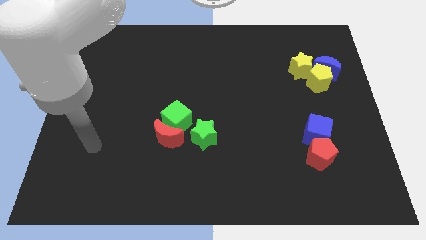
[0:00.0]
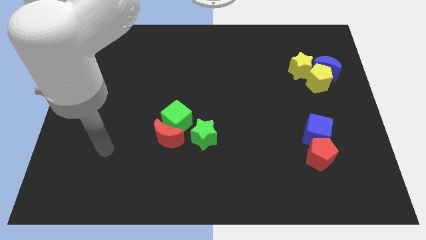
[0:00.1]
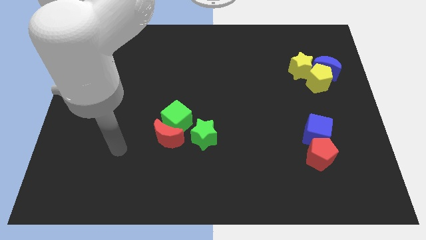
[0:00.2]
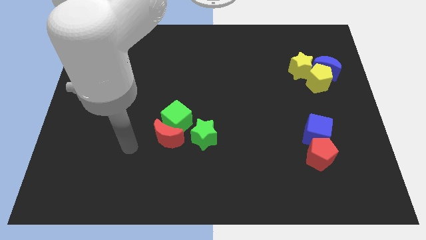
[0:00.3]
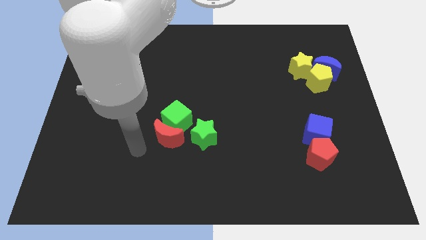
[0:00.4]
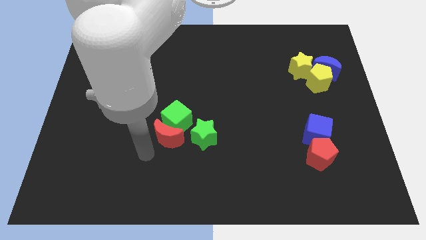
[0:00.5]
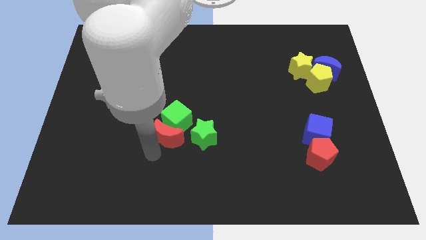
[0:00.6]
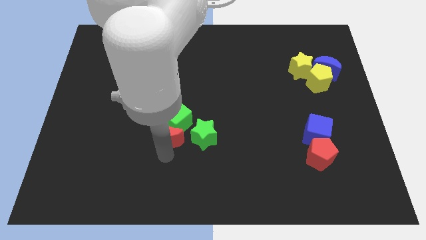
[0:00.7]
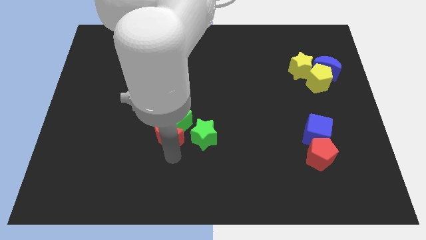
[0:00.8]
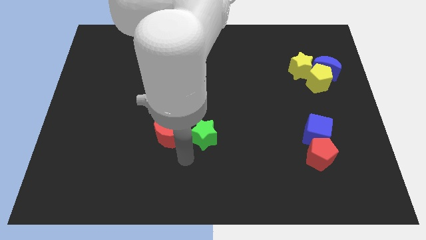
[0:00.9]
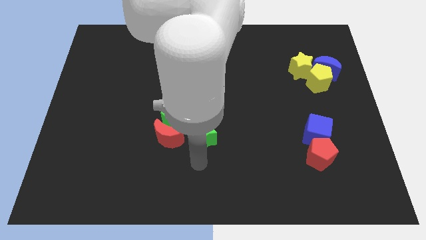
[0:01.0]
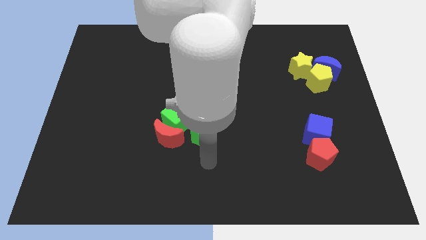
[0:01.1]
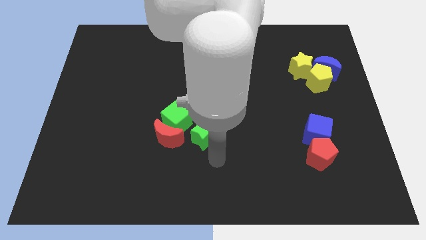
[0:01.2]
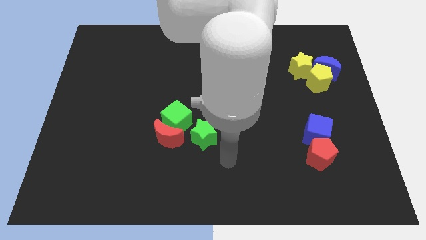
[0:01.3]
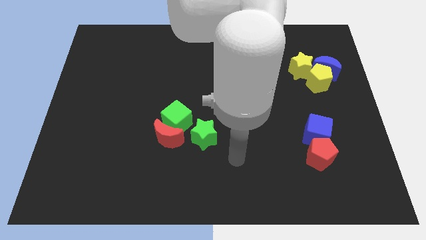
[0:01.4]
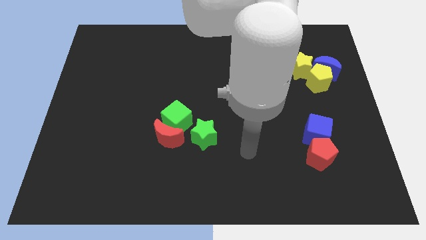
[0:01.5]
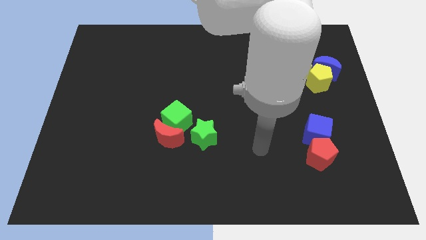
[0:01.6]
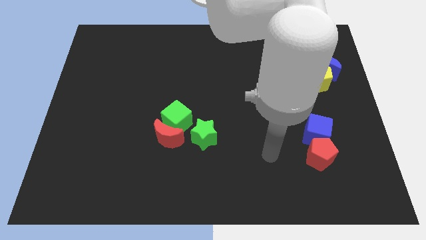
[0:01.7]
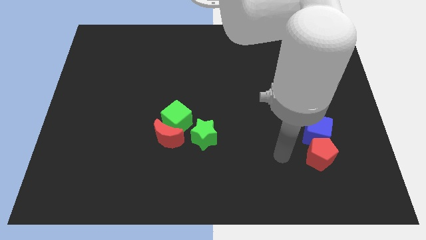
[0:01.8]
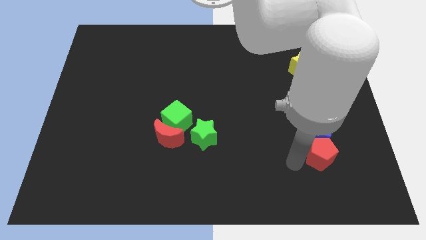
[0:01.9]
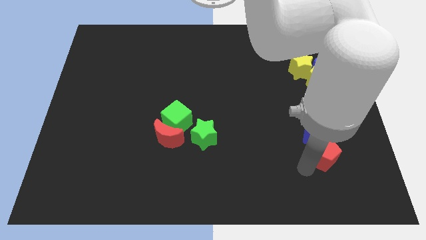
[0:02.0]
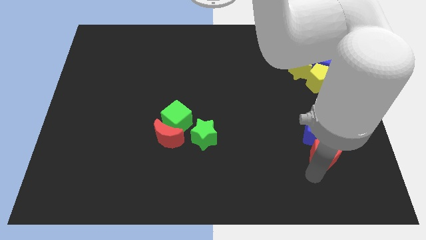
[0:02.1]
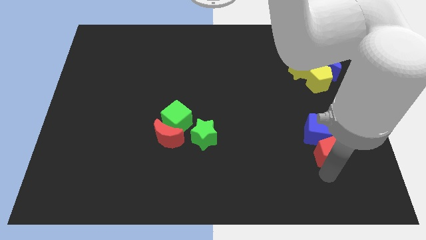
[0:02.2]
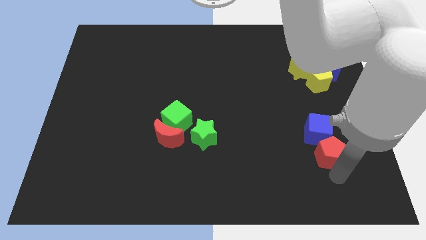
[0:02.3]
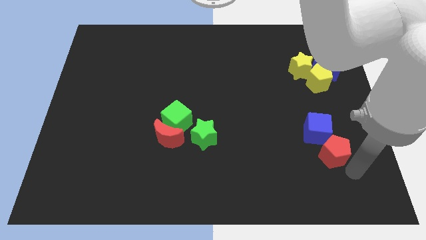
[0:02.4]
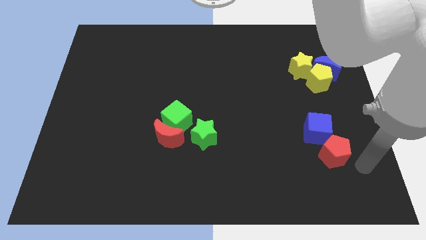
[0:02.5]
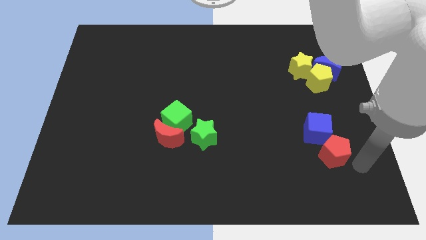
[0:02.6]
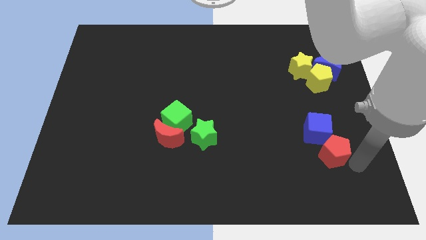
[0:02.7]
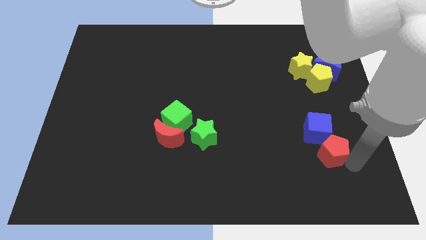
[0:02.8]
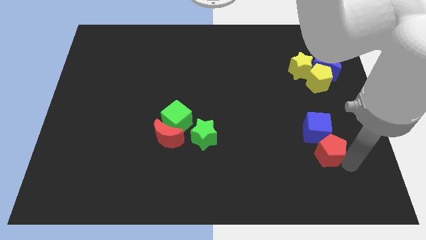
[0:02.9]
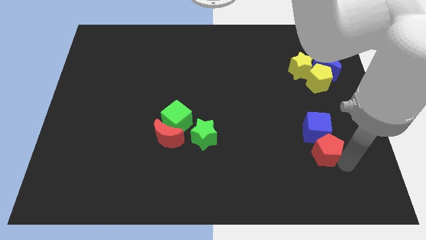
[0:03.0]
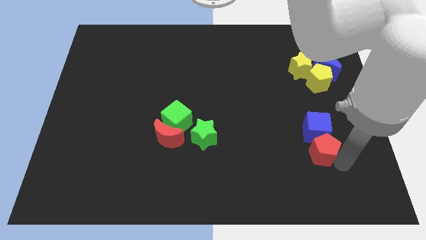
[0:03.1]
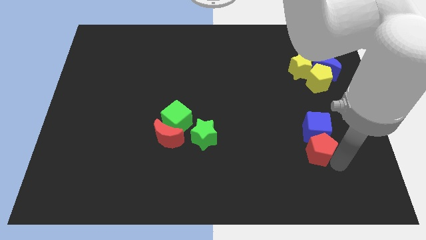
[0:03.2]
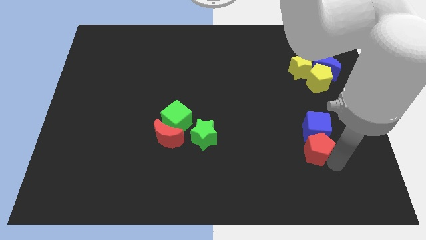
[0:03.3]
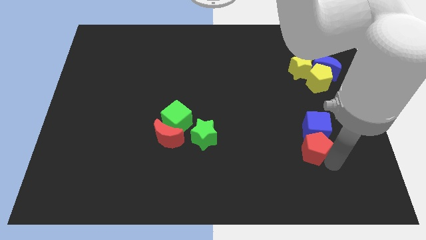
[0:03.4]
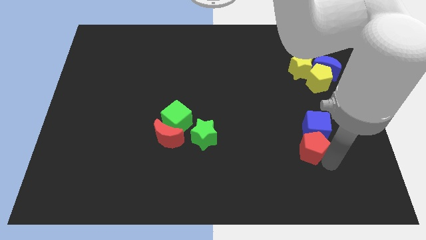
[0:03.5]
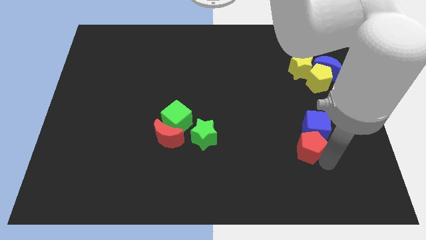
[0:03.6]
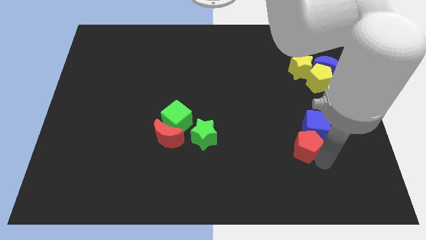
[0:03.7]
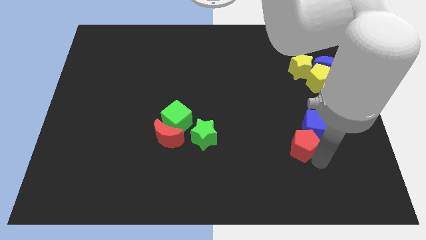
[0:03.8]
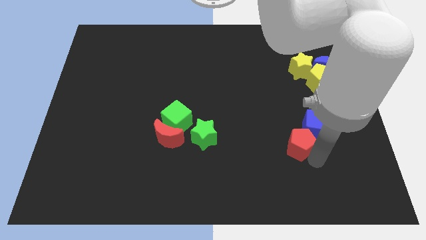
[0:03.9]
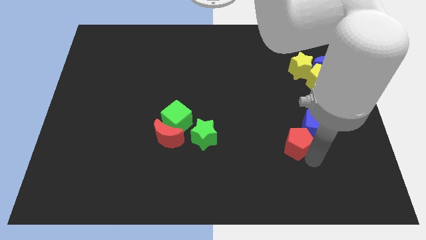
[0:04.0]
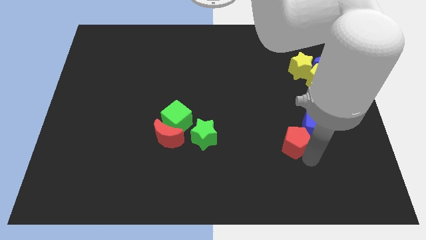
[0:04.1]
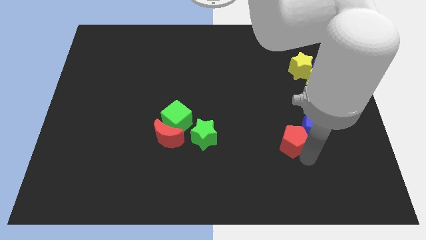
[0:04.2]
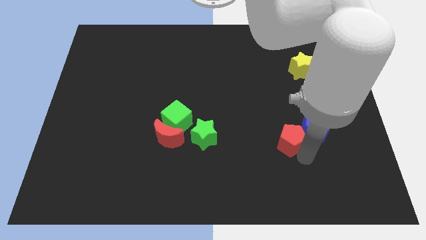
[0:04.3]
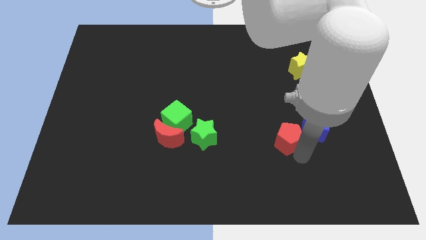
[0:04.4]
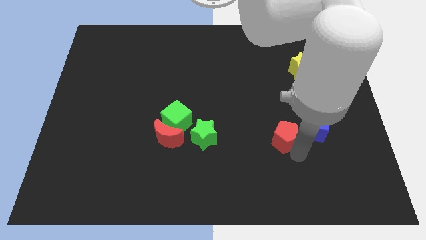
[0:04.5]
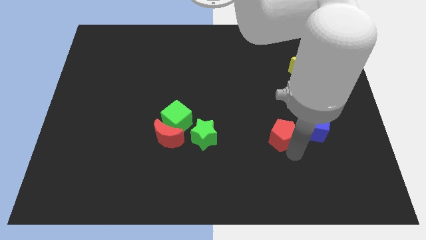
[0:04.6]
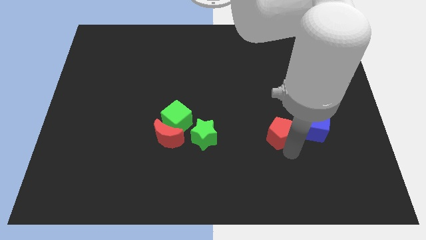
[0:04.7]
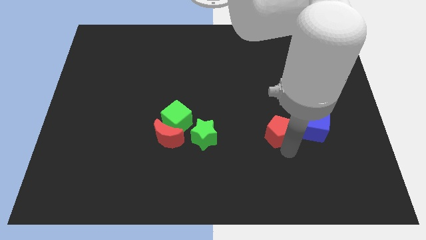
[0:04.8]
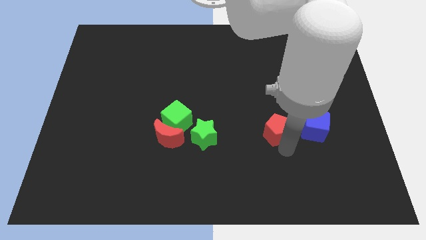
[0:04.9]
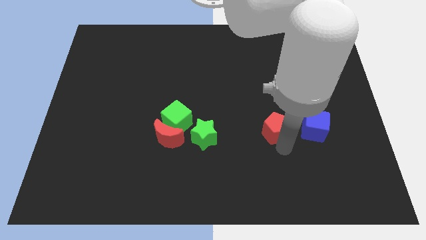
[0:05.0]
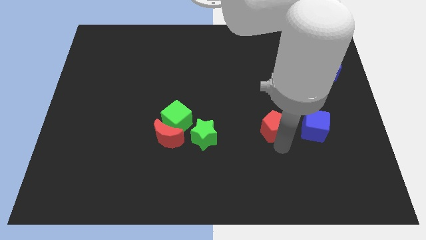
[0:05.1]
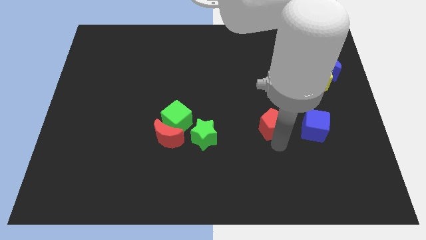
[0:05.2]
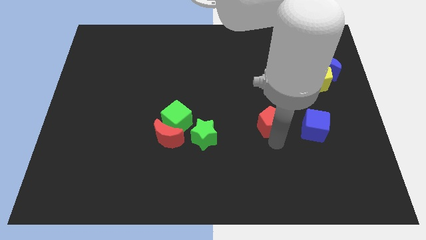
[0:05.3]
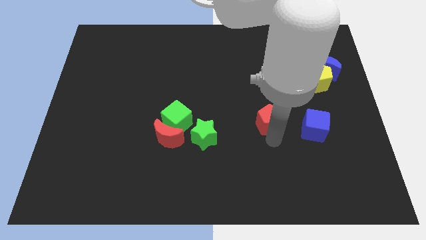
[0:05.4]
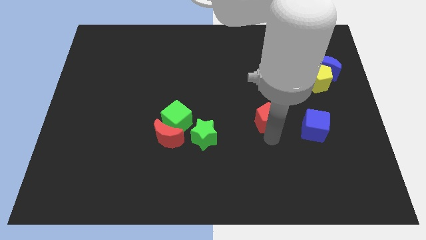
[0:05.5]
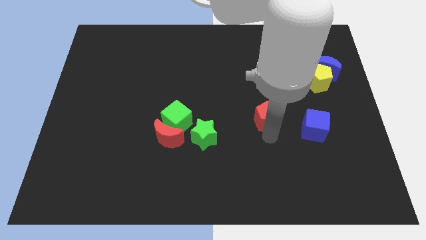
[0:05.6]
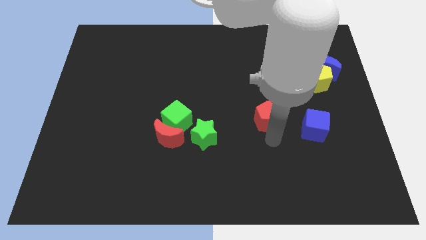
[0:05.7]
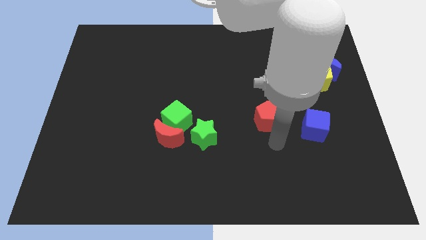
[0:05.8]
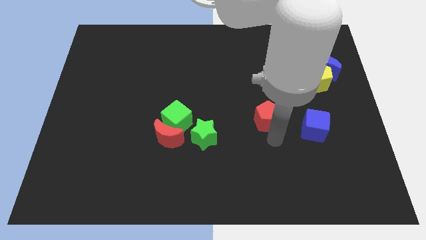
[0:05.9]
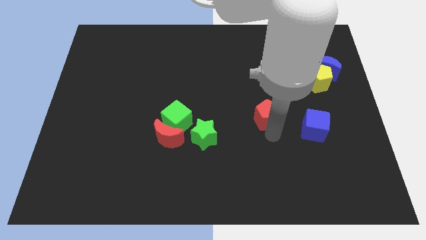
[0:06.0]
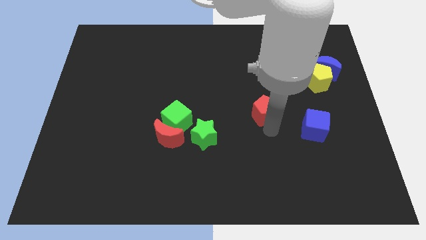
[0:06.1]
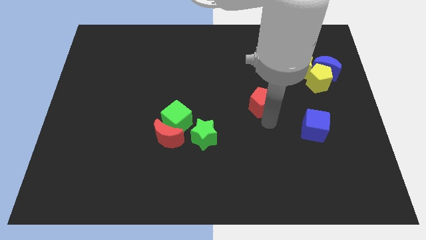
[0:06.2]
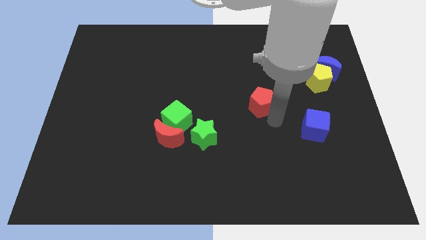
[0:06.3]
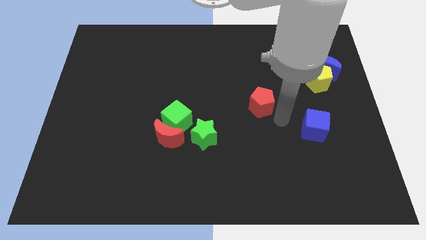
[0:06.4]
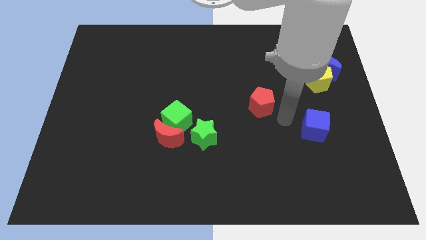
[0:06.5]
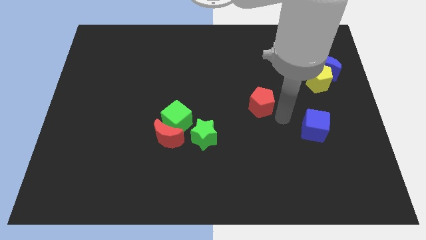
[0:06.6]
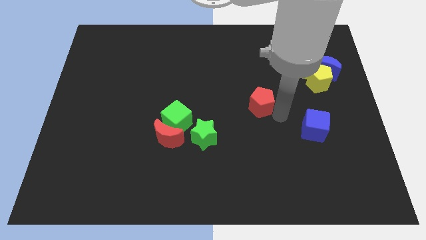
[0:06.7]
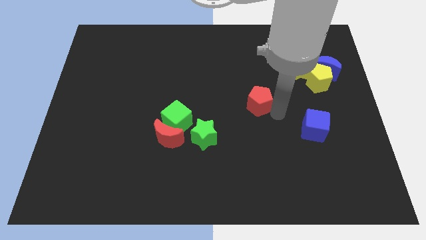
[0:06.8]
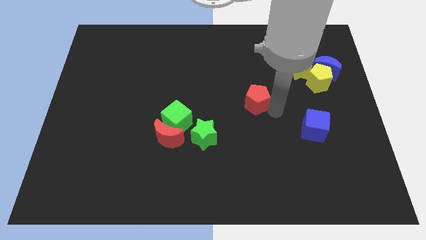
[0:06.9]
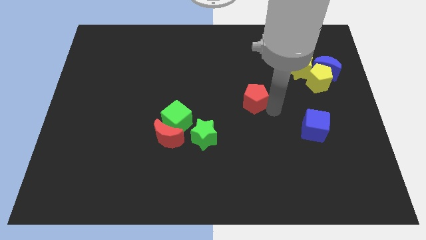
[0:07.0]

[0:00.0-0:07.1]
slide the red pentagon diagonally upwards and to the left

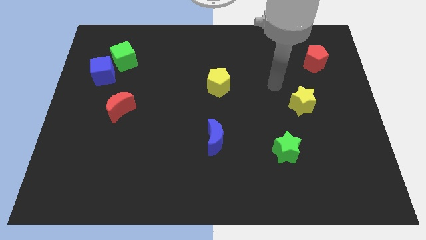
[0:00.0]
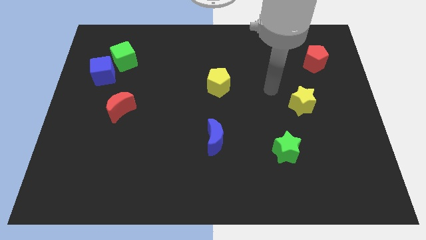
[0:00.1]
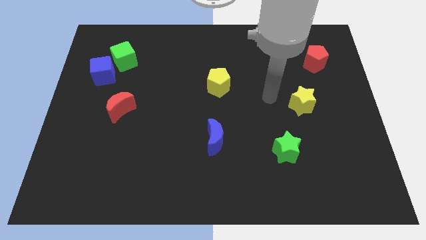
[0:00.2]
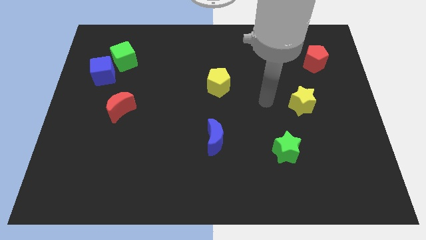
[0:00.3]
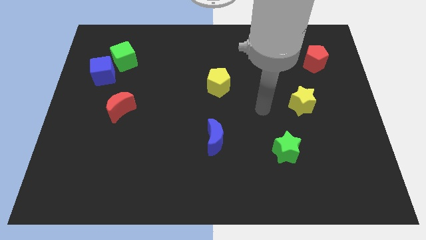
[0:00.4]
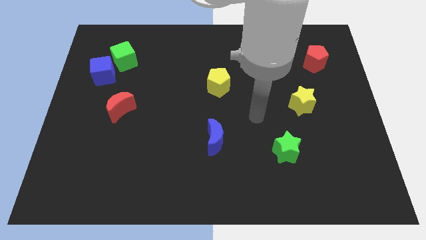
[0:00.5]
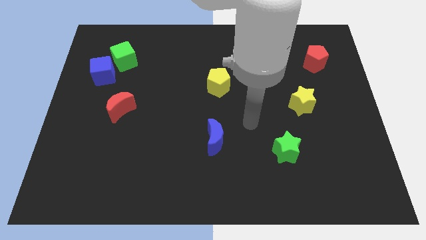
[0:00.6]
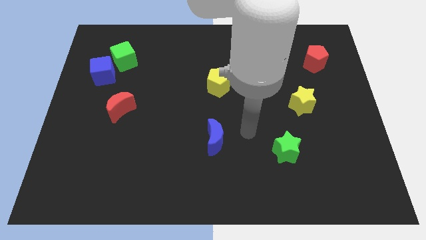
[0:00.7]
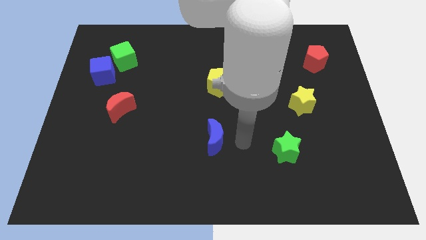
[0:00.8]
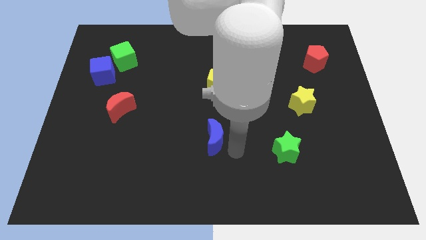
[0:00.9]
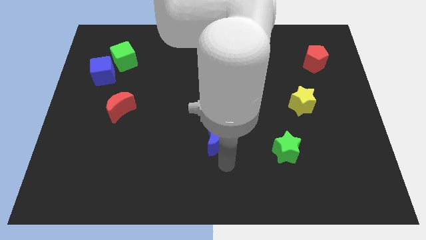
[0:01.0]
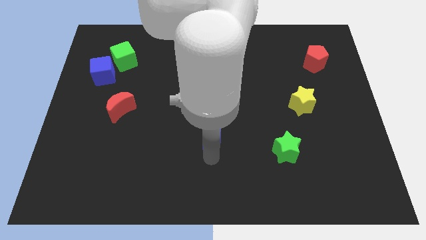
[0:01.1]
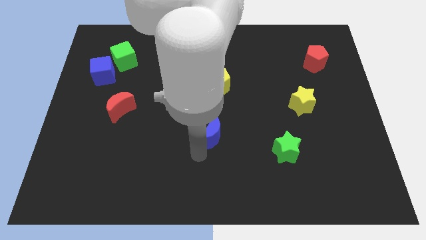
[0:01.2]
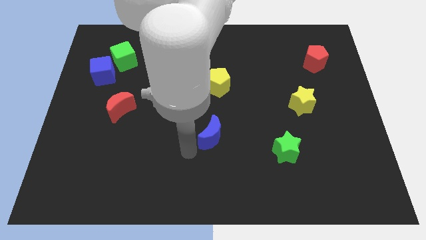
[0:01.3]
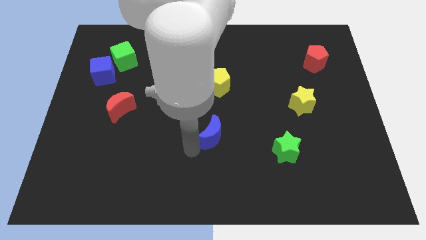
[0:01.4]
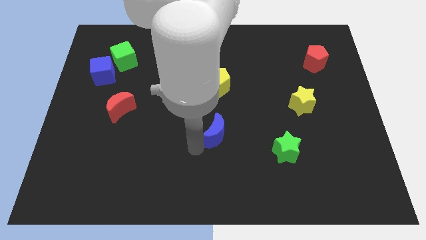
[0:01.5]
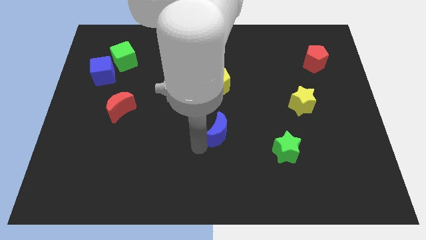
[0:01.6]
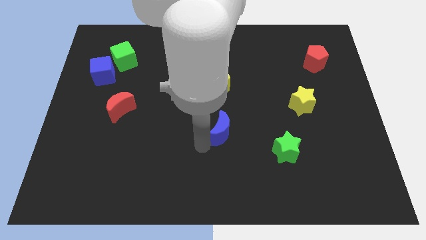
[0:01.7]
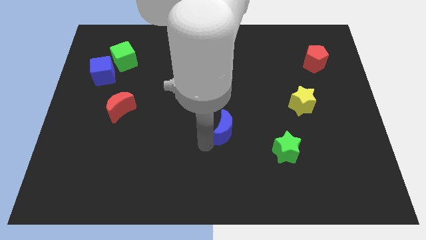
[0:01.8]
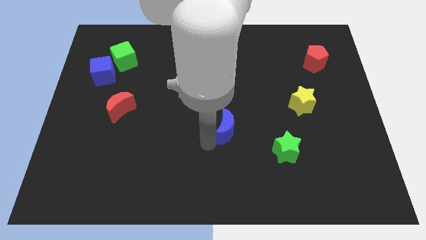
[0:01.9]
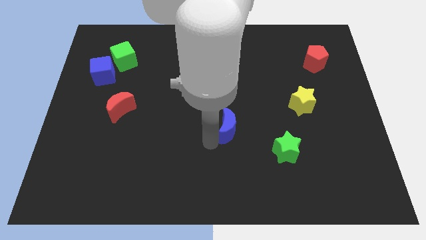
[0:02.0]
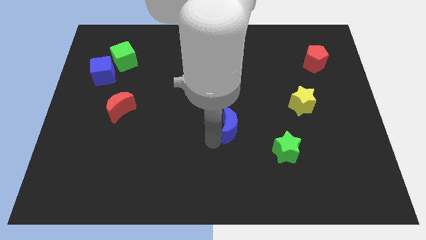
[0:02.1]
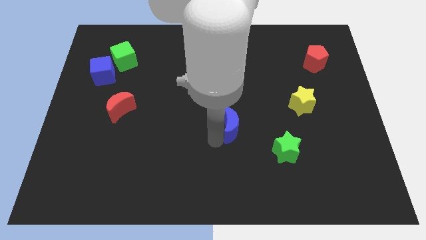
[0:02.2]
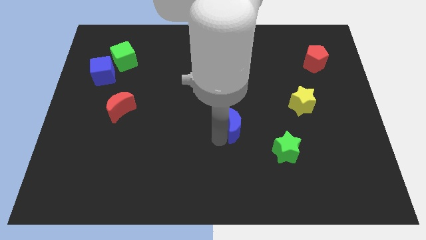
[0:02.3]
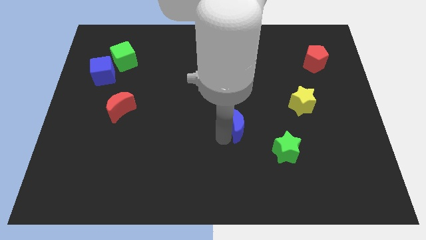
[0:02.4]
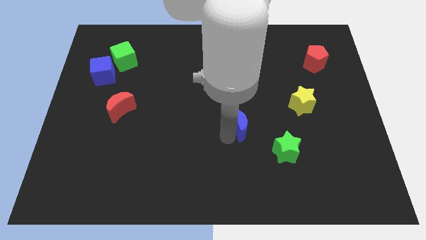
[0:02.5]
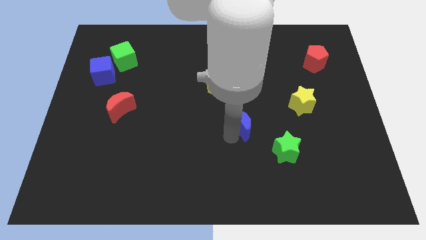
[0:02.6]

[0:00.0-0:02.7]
push the blue moon a bit diagonally up and to the right
